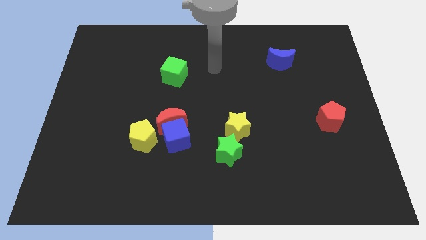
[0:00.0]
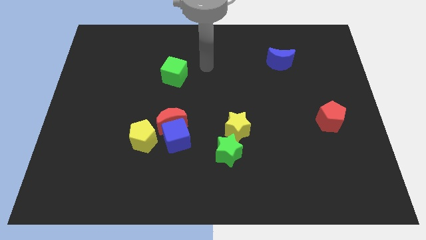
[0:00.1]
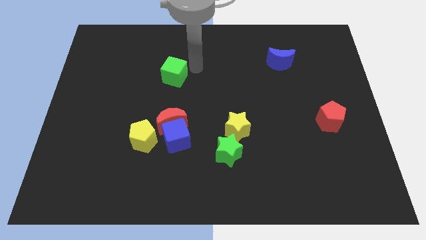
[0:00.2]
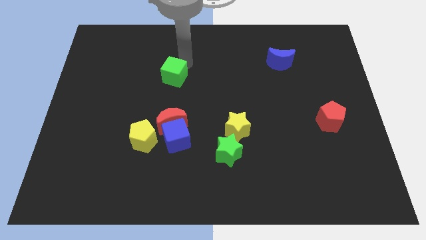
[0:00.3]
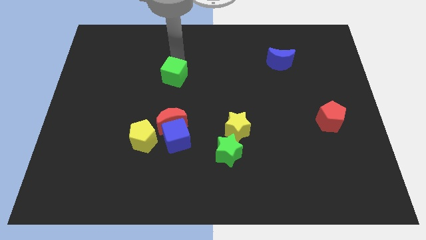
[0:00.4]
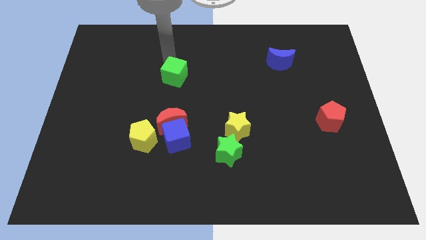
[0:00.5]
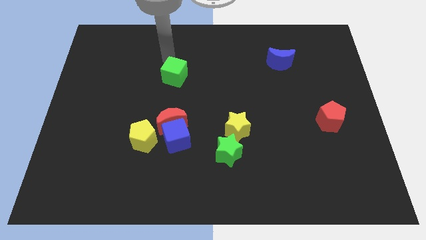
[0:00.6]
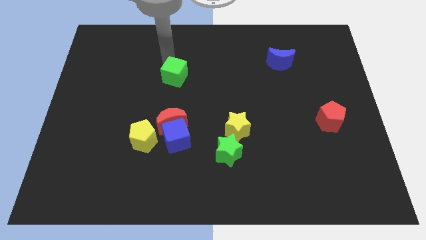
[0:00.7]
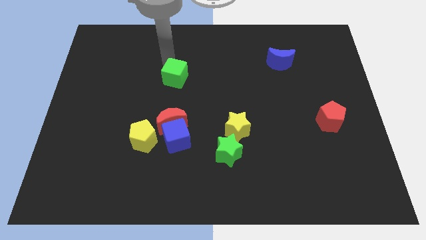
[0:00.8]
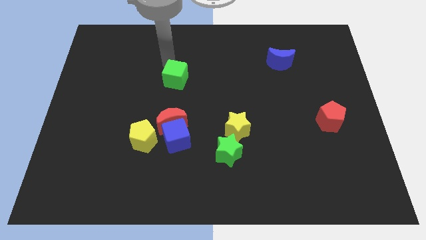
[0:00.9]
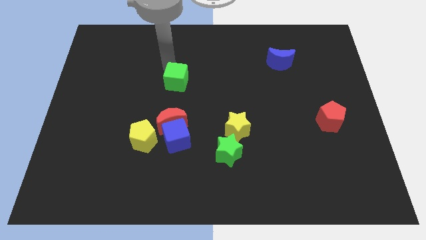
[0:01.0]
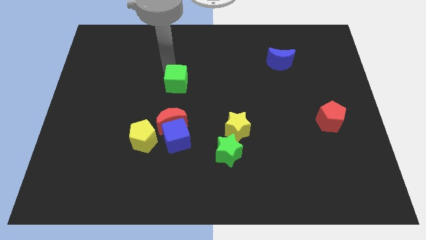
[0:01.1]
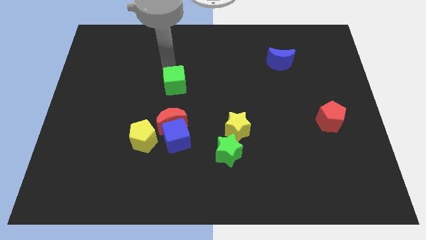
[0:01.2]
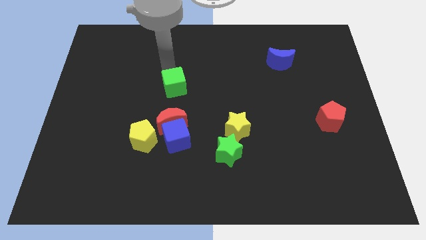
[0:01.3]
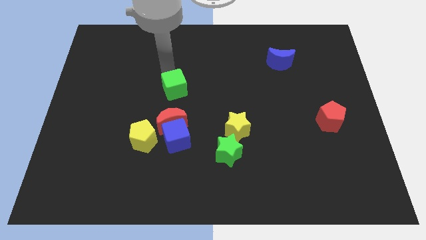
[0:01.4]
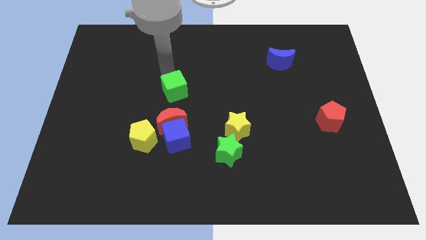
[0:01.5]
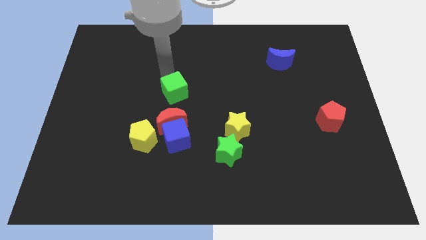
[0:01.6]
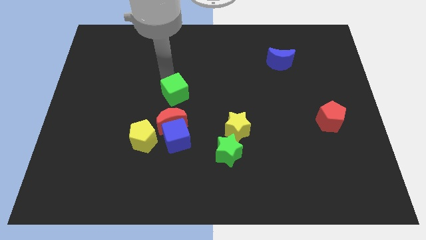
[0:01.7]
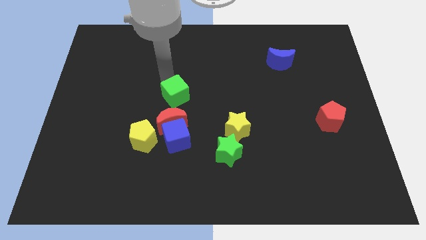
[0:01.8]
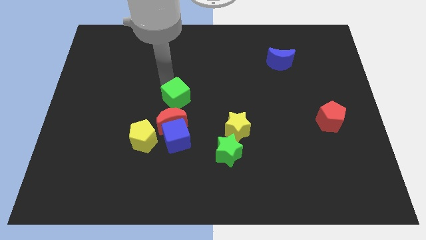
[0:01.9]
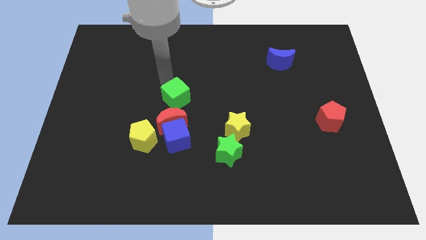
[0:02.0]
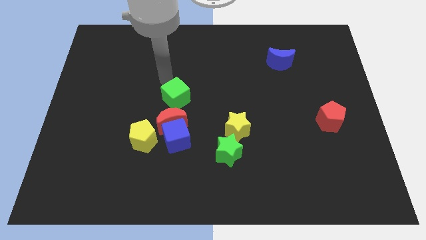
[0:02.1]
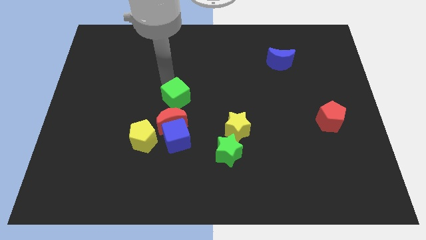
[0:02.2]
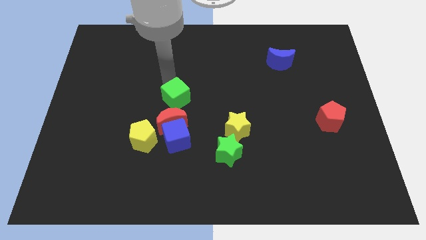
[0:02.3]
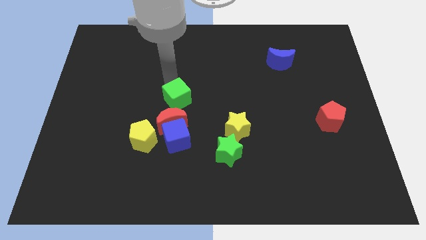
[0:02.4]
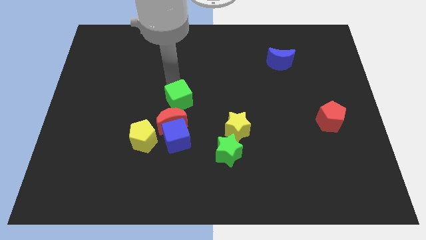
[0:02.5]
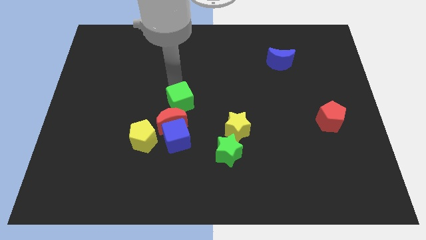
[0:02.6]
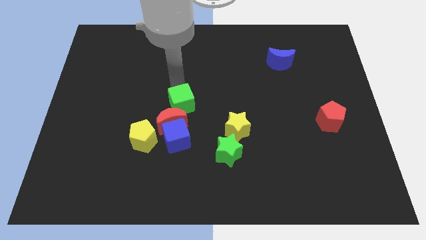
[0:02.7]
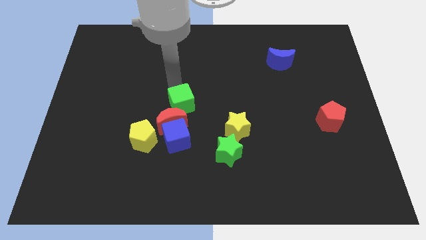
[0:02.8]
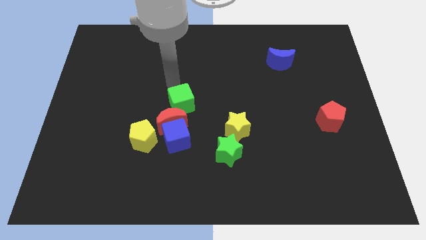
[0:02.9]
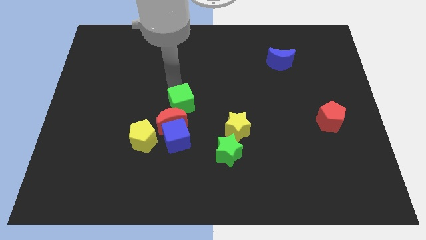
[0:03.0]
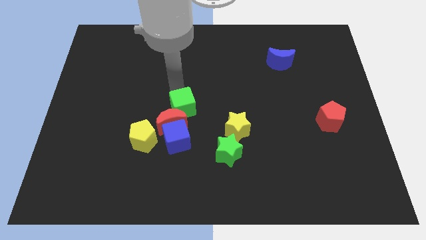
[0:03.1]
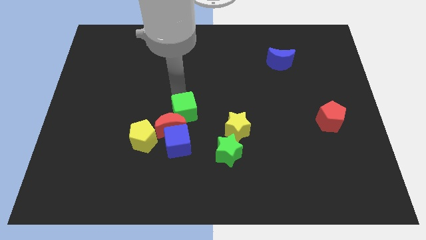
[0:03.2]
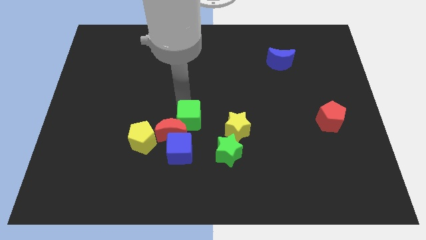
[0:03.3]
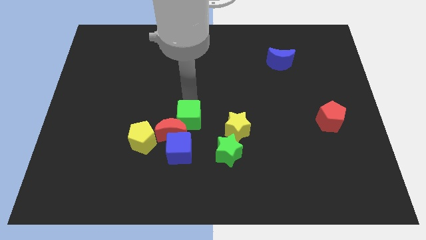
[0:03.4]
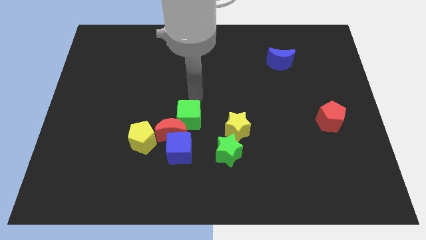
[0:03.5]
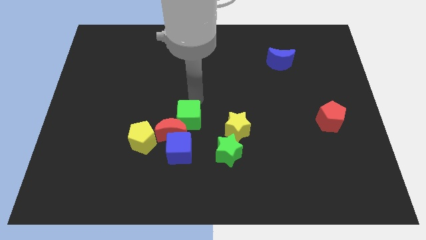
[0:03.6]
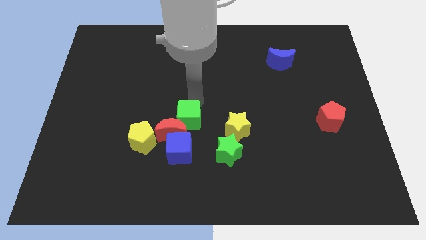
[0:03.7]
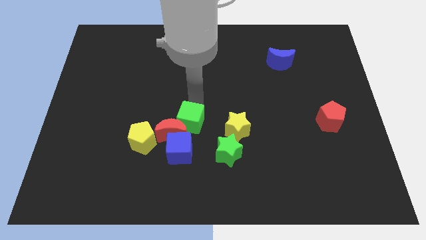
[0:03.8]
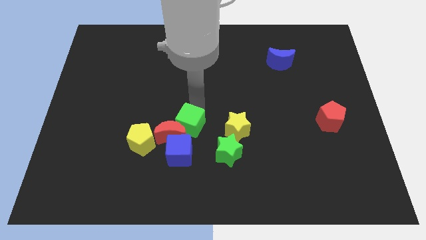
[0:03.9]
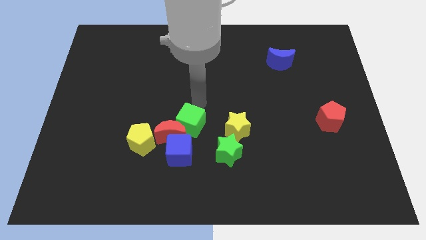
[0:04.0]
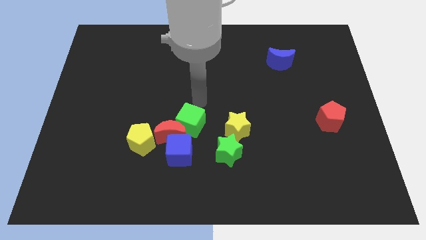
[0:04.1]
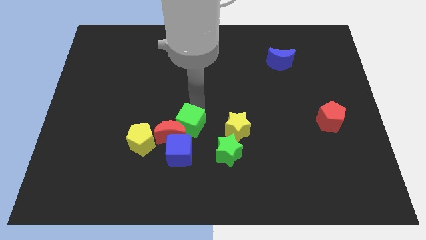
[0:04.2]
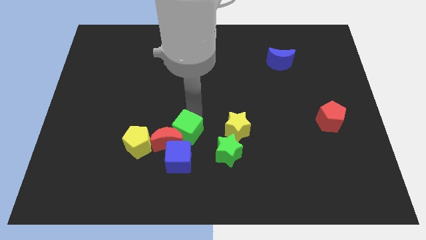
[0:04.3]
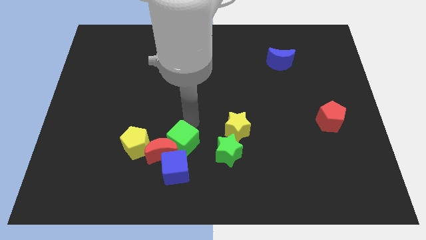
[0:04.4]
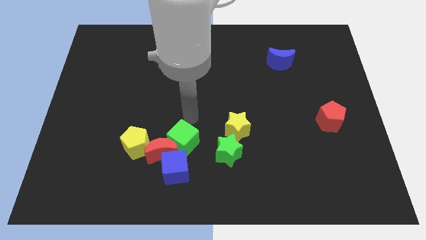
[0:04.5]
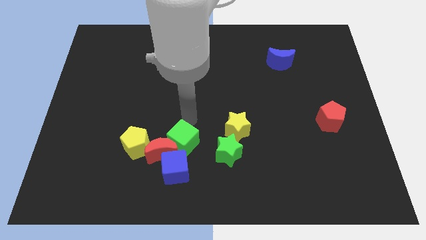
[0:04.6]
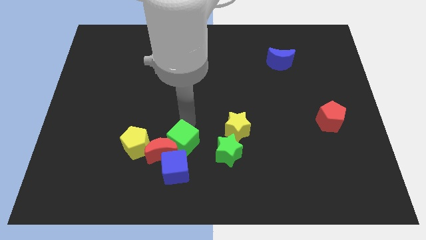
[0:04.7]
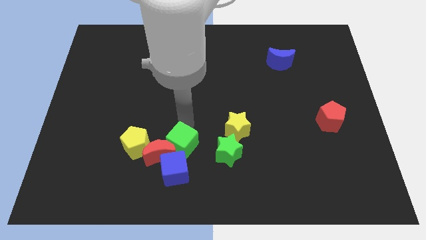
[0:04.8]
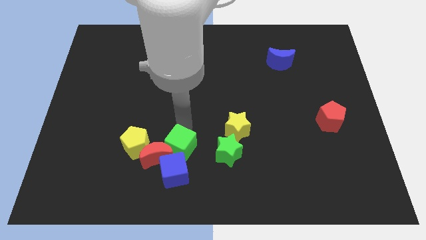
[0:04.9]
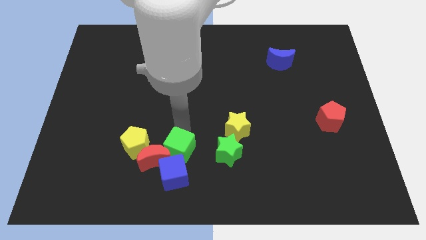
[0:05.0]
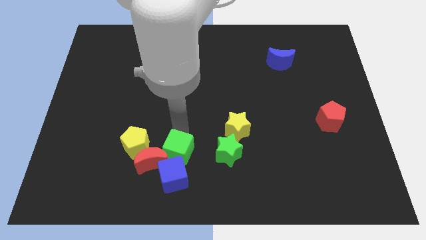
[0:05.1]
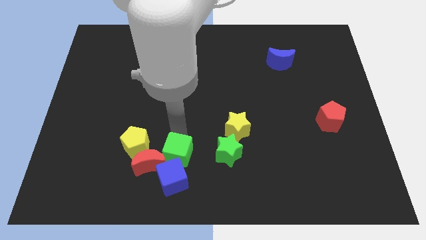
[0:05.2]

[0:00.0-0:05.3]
put the green cube close to the blue cube

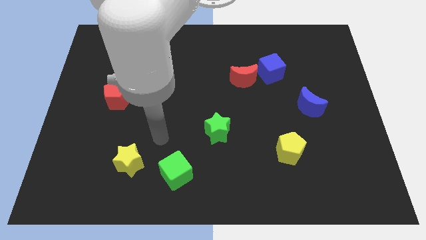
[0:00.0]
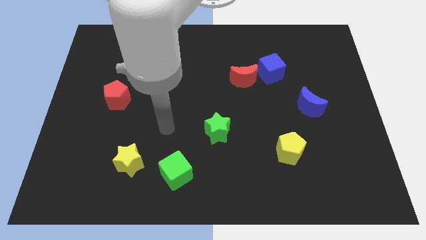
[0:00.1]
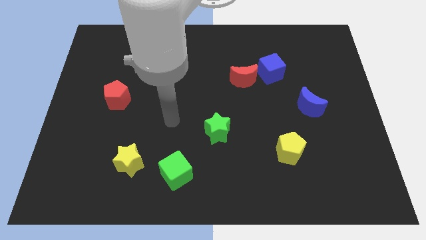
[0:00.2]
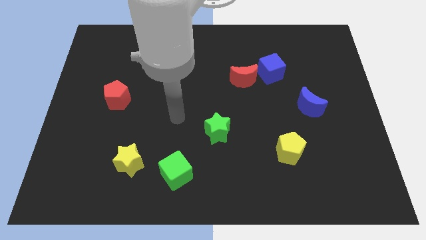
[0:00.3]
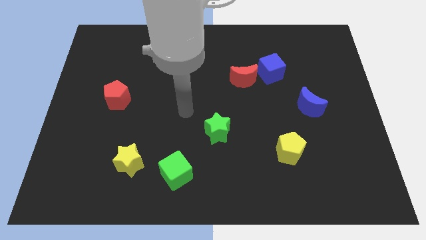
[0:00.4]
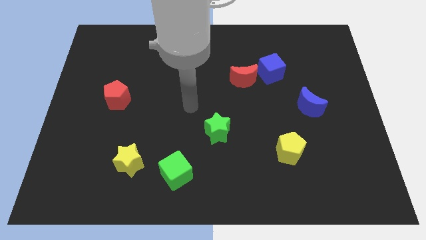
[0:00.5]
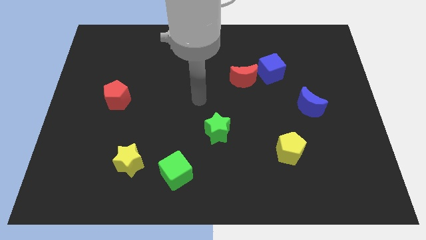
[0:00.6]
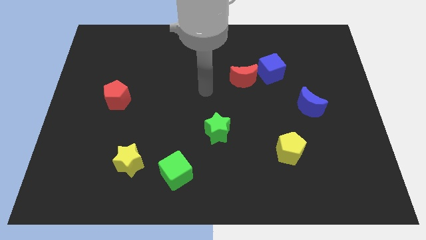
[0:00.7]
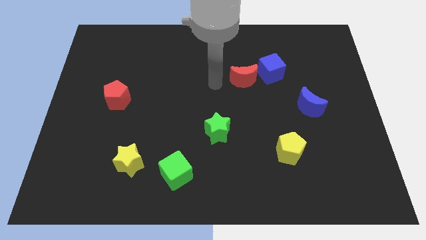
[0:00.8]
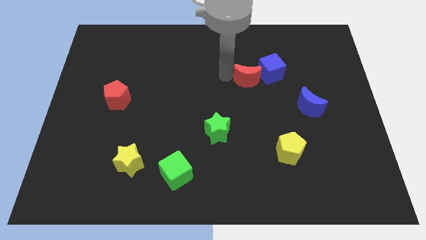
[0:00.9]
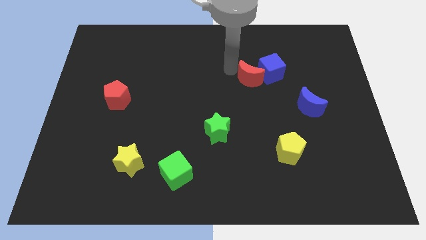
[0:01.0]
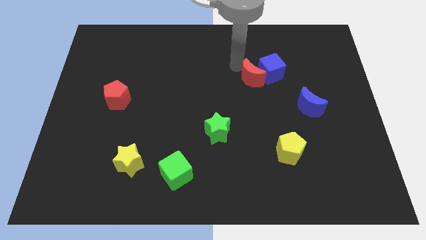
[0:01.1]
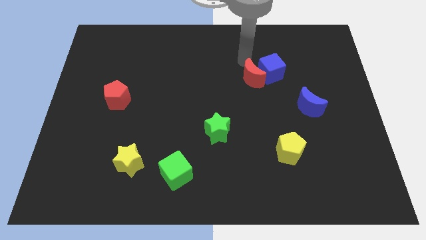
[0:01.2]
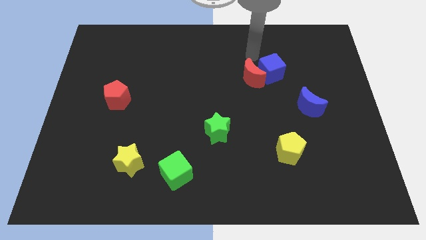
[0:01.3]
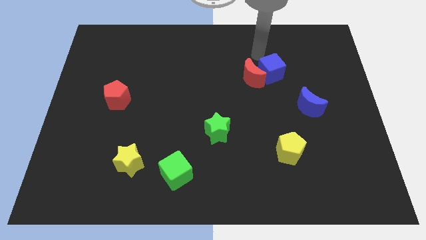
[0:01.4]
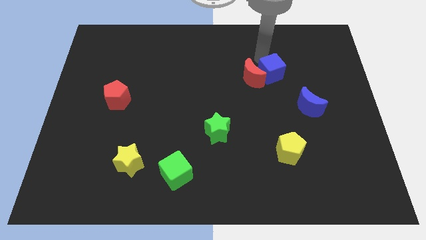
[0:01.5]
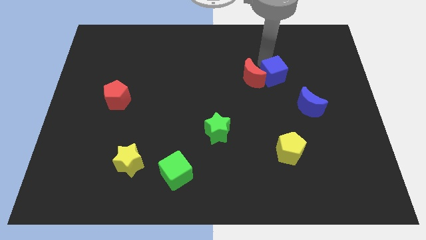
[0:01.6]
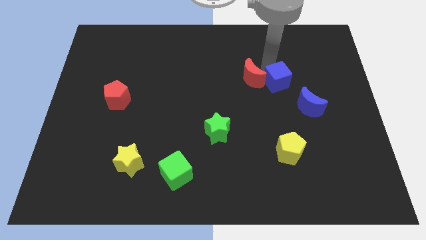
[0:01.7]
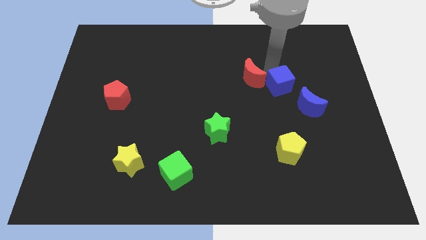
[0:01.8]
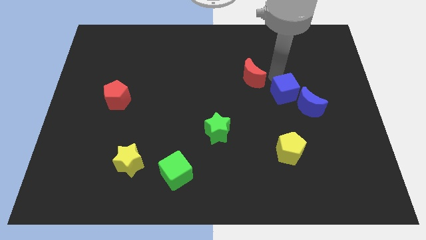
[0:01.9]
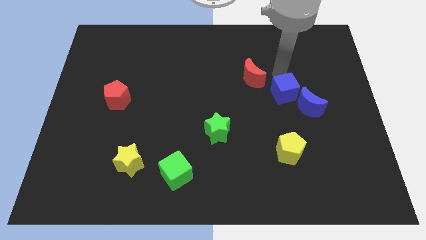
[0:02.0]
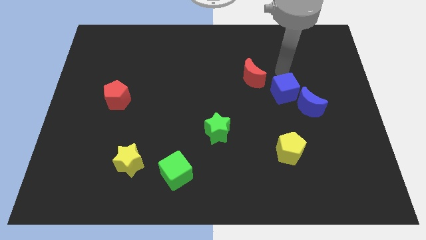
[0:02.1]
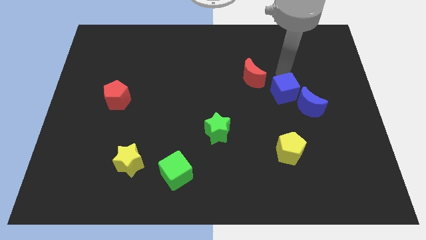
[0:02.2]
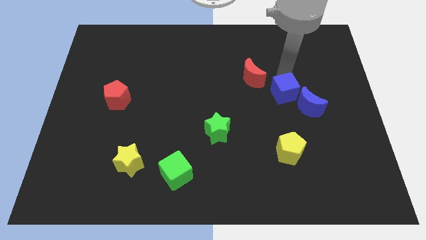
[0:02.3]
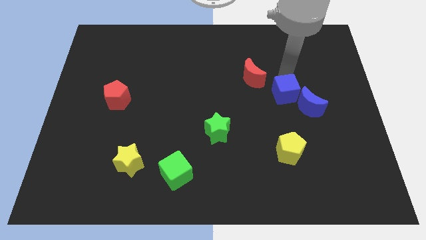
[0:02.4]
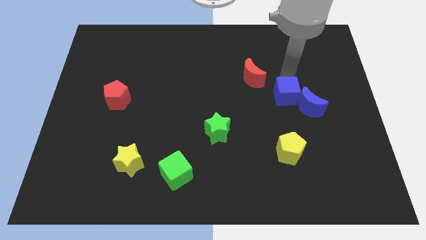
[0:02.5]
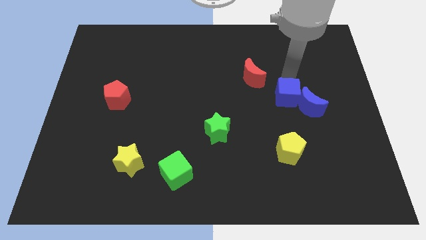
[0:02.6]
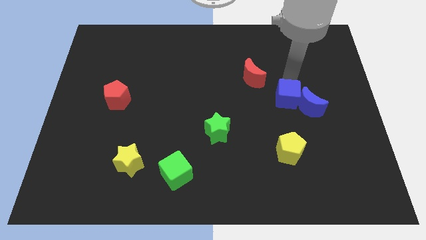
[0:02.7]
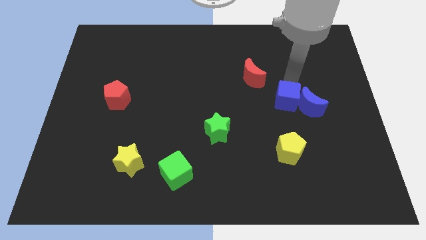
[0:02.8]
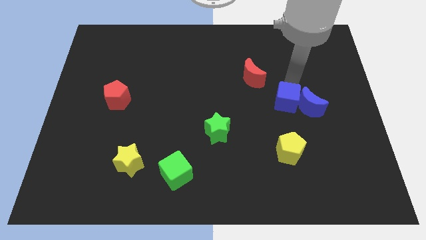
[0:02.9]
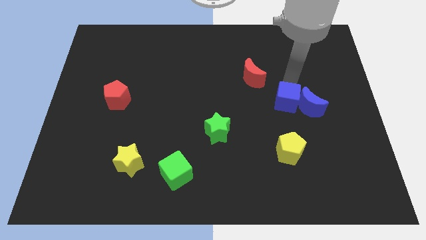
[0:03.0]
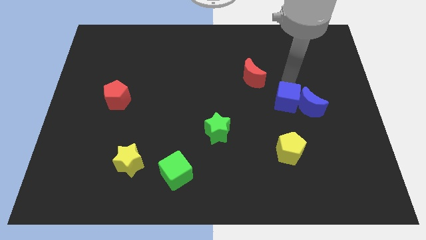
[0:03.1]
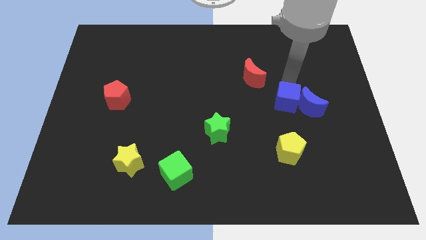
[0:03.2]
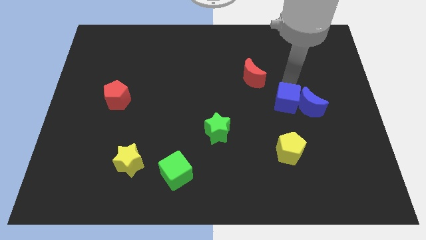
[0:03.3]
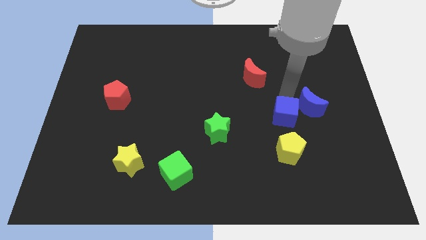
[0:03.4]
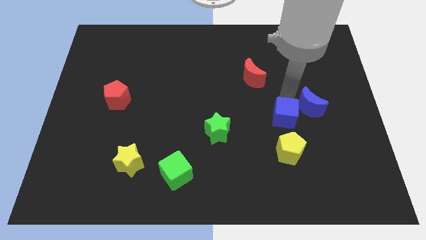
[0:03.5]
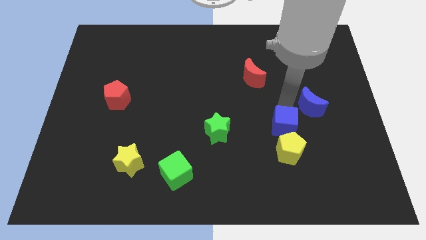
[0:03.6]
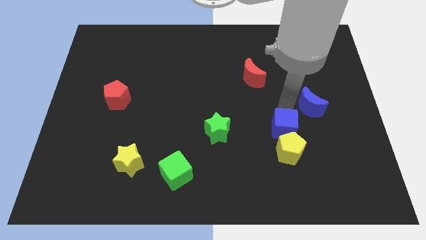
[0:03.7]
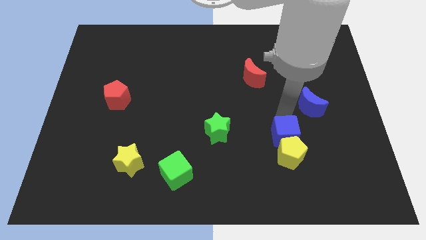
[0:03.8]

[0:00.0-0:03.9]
slide the blue cube towards the yellow pentagon
